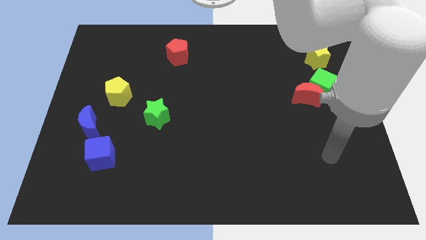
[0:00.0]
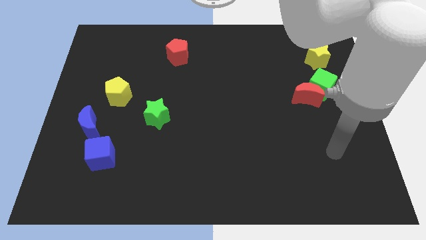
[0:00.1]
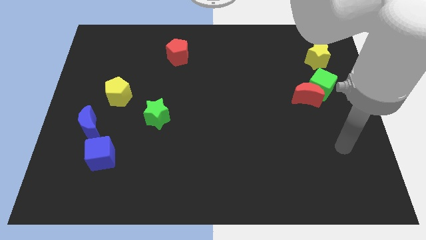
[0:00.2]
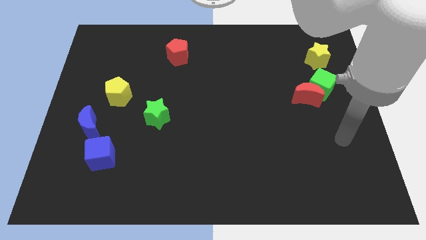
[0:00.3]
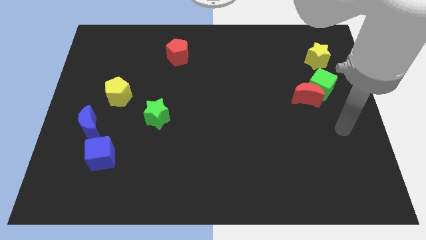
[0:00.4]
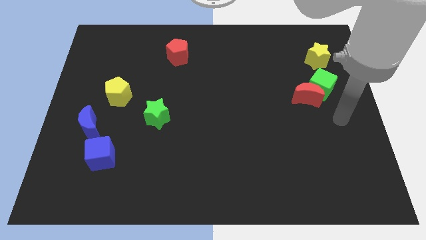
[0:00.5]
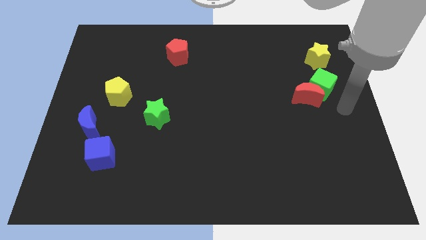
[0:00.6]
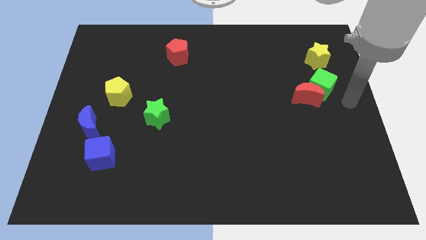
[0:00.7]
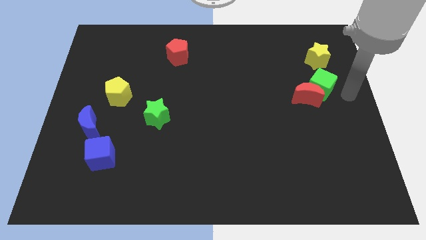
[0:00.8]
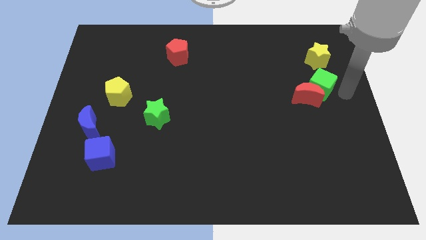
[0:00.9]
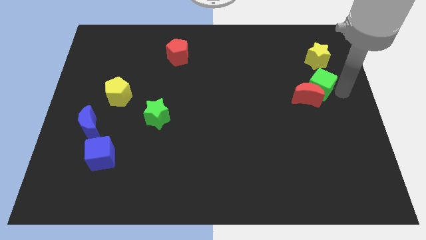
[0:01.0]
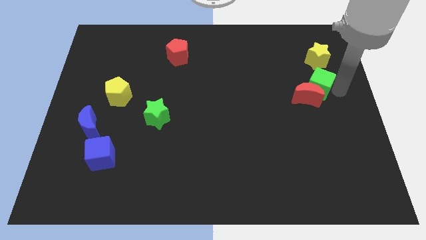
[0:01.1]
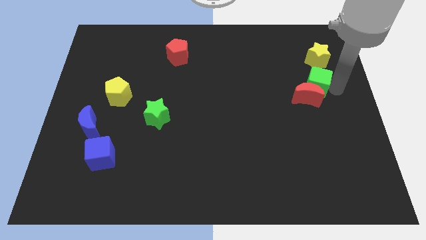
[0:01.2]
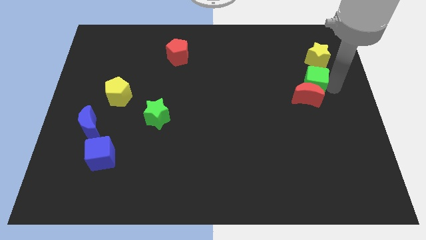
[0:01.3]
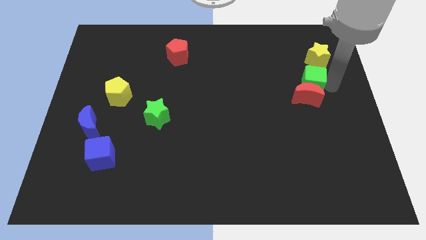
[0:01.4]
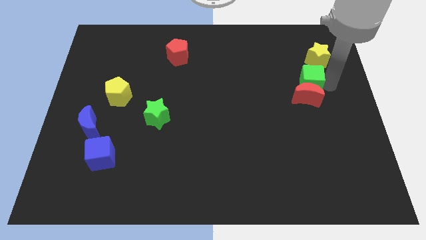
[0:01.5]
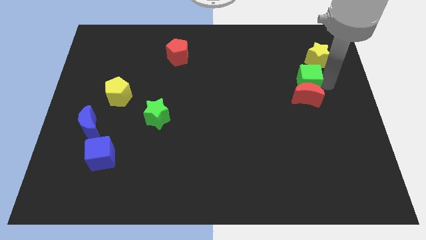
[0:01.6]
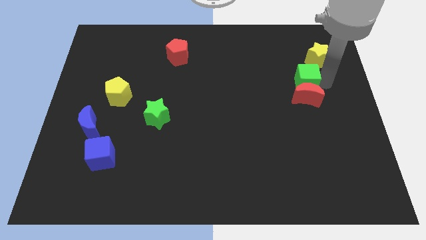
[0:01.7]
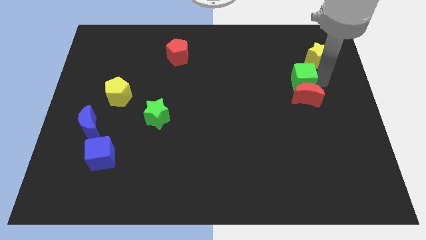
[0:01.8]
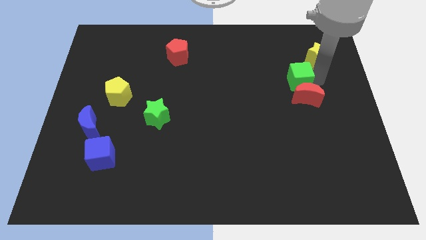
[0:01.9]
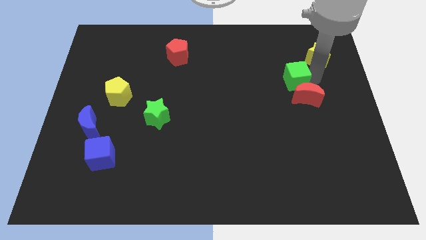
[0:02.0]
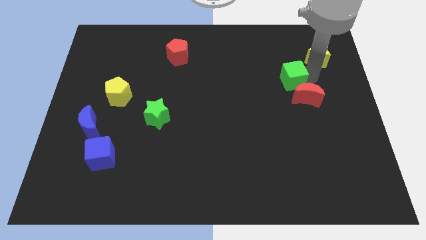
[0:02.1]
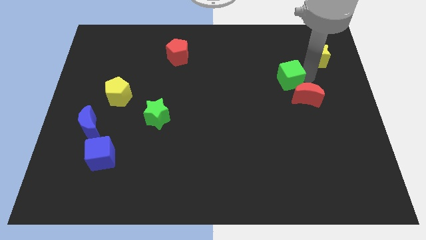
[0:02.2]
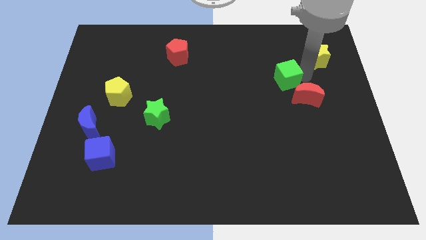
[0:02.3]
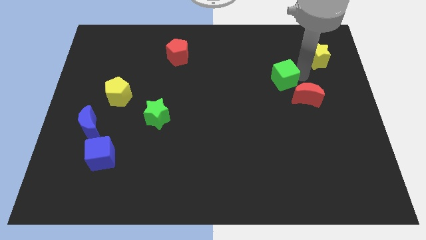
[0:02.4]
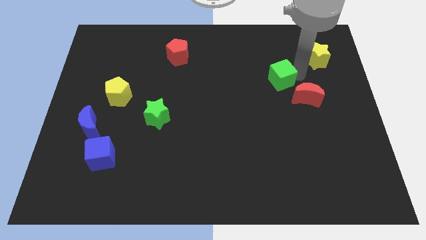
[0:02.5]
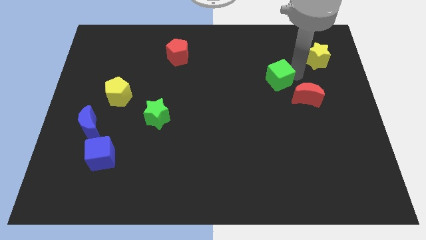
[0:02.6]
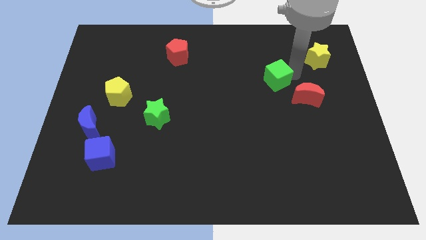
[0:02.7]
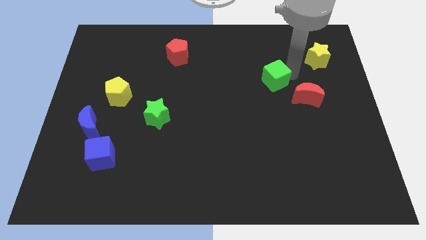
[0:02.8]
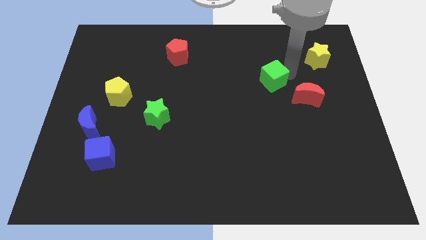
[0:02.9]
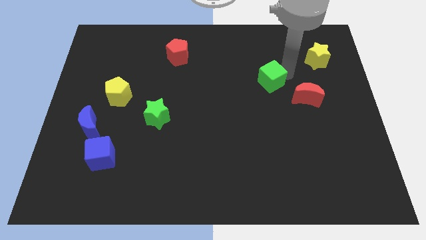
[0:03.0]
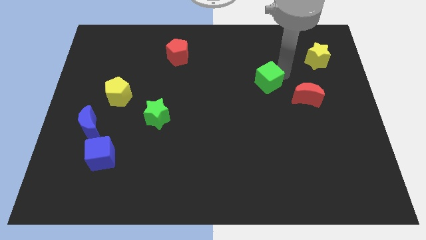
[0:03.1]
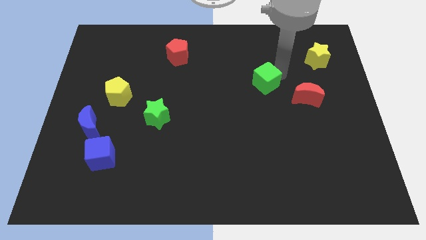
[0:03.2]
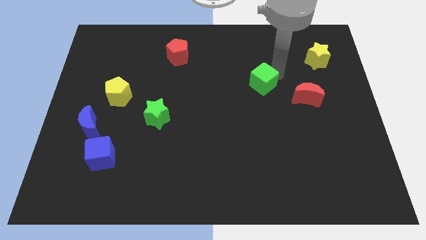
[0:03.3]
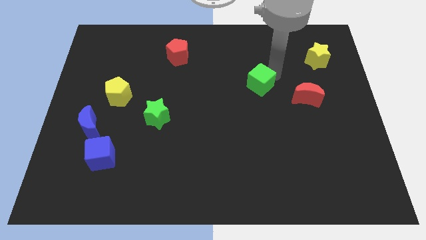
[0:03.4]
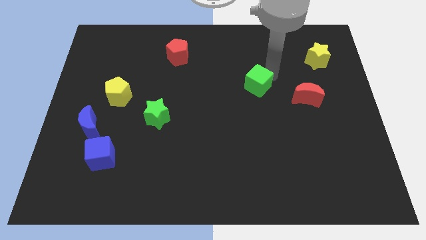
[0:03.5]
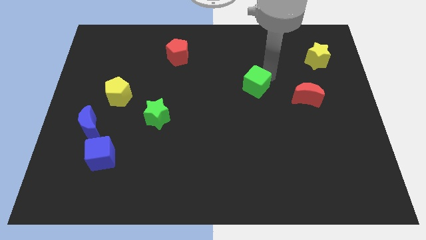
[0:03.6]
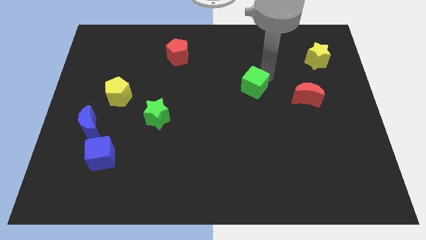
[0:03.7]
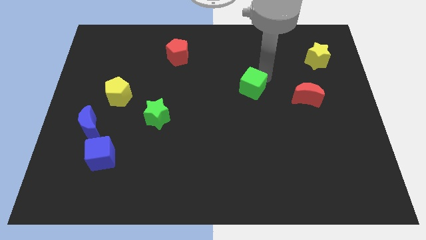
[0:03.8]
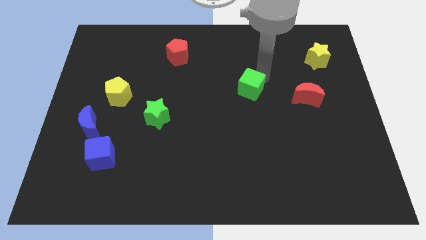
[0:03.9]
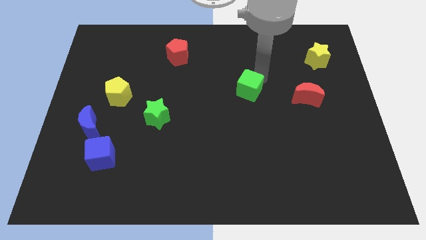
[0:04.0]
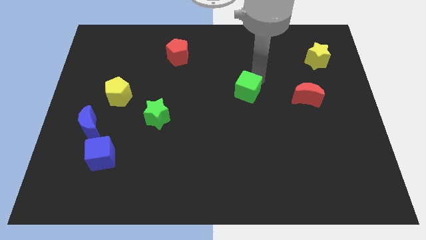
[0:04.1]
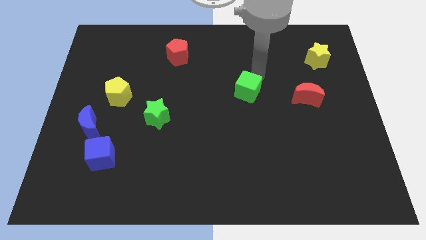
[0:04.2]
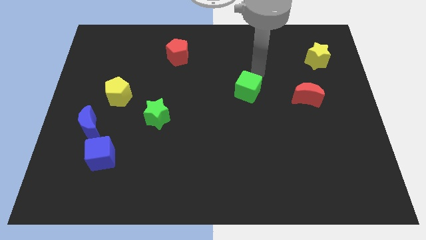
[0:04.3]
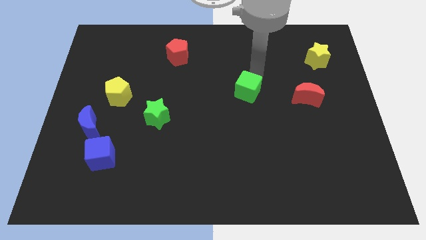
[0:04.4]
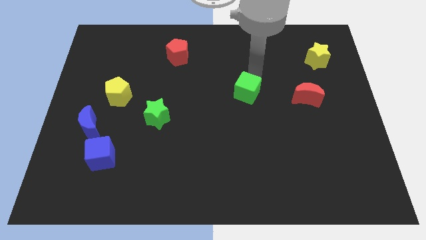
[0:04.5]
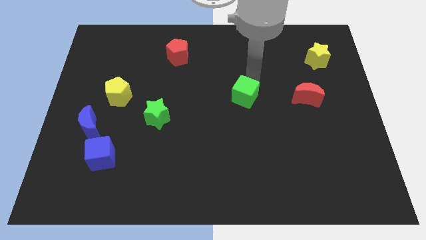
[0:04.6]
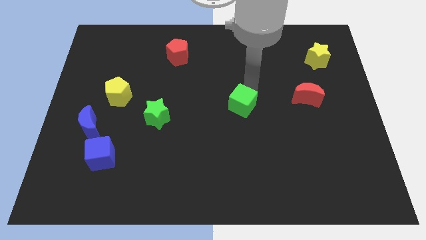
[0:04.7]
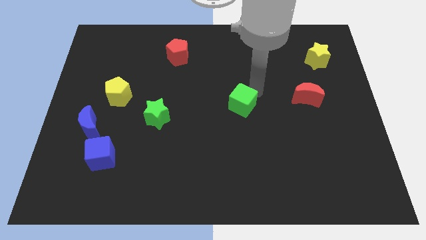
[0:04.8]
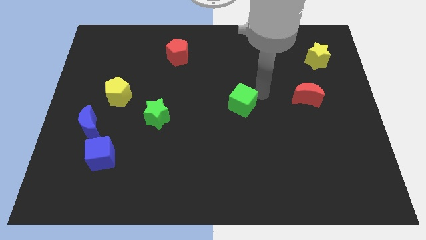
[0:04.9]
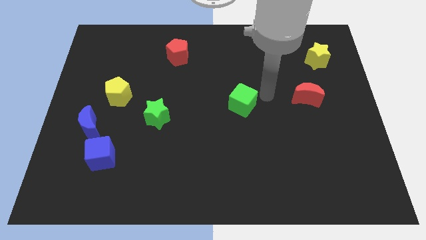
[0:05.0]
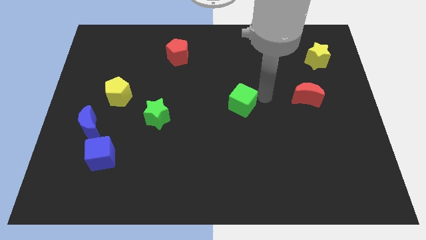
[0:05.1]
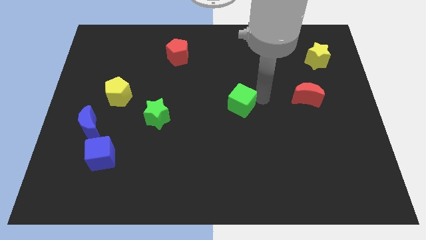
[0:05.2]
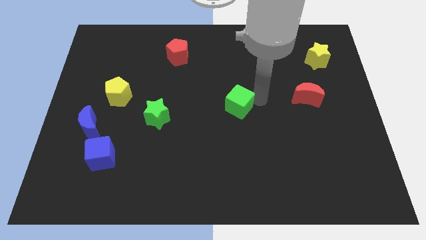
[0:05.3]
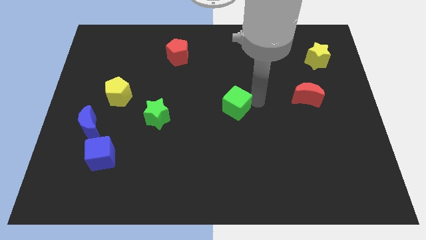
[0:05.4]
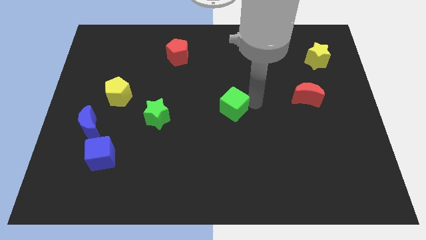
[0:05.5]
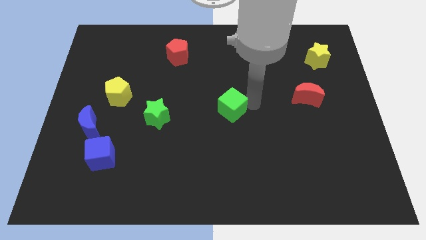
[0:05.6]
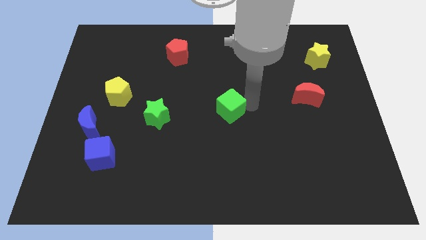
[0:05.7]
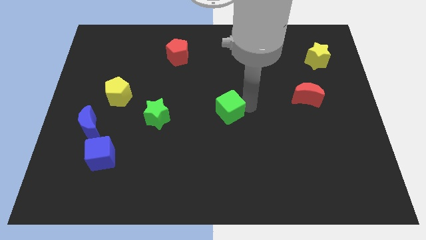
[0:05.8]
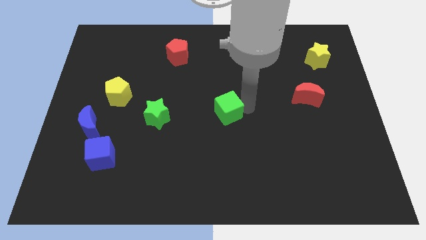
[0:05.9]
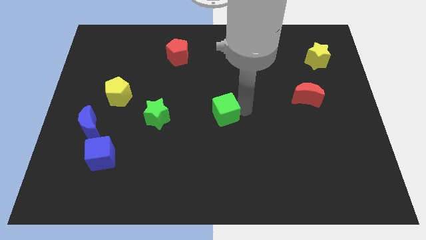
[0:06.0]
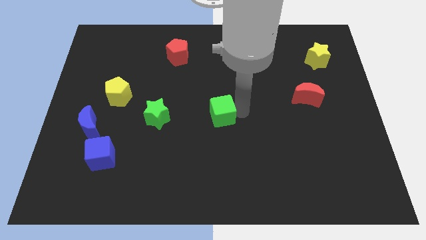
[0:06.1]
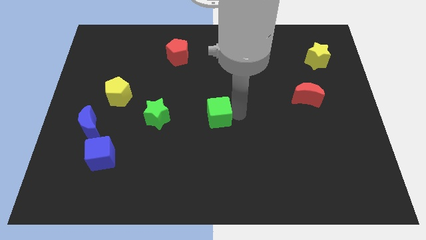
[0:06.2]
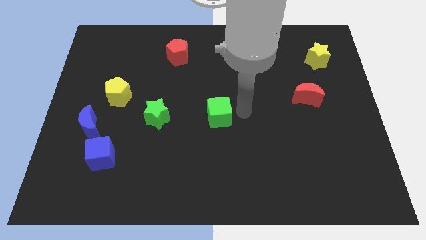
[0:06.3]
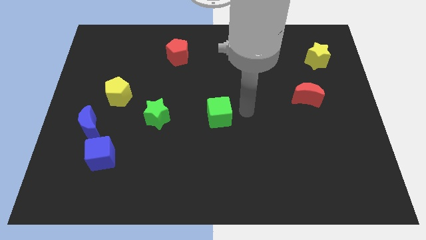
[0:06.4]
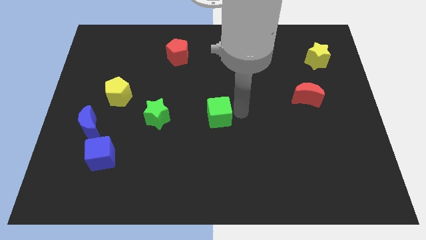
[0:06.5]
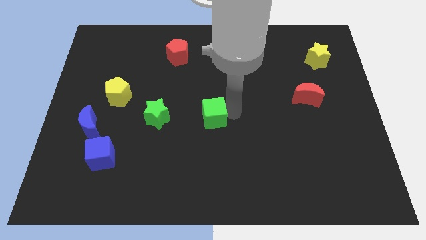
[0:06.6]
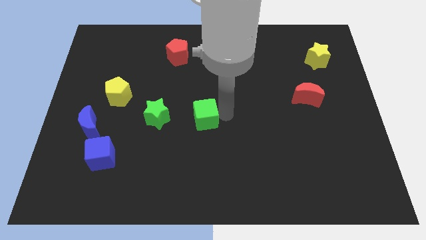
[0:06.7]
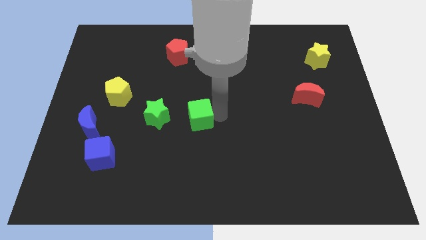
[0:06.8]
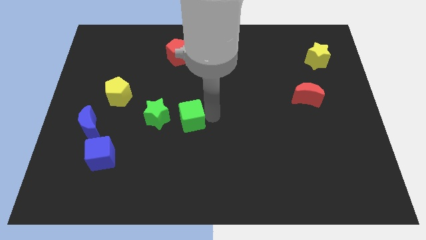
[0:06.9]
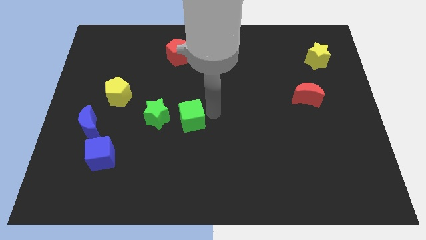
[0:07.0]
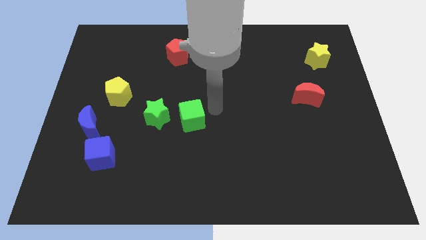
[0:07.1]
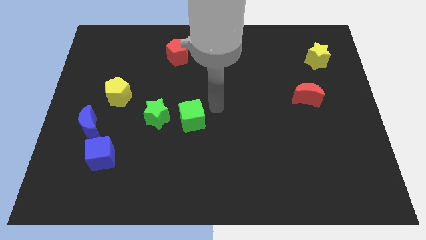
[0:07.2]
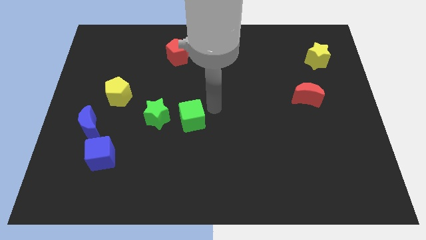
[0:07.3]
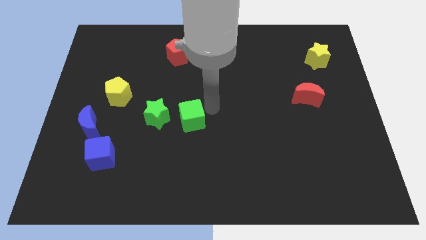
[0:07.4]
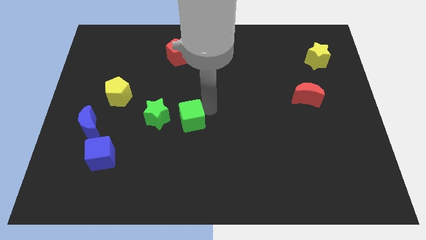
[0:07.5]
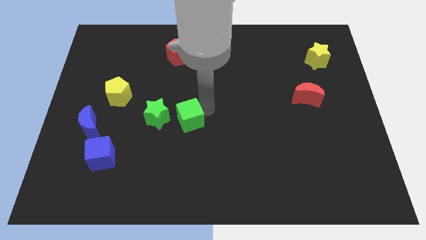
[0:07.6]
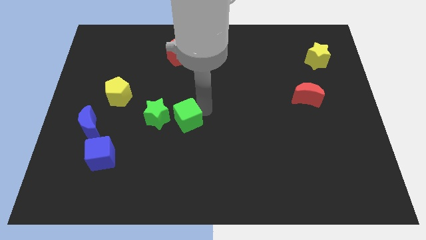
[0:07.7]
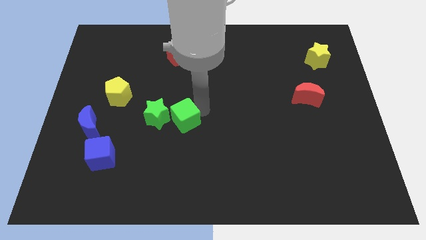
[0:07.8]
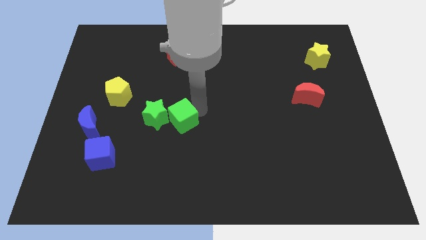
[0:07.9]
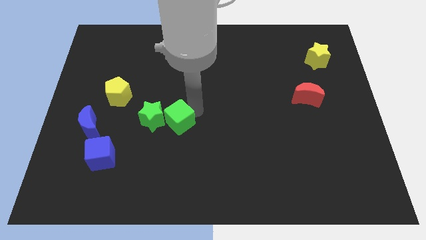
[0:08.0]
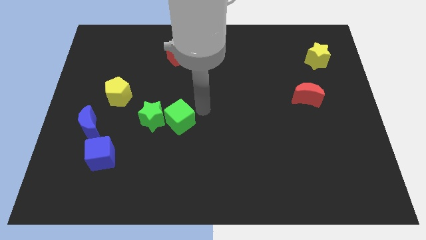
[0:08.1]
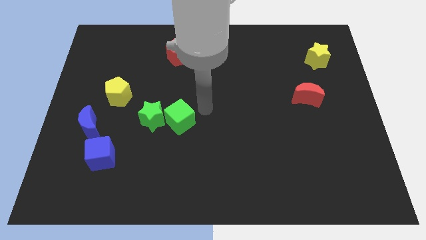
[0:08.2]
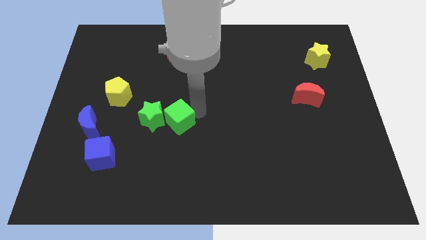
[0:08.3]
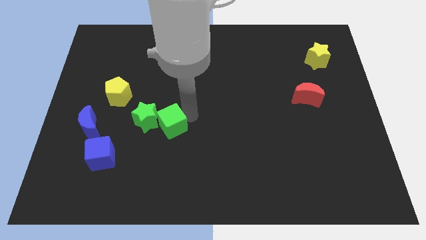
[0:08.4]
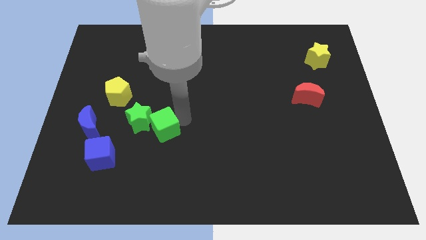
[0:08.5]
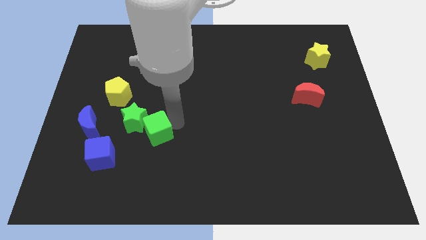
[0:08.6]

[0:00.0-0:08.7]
move the green cube to the right side of the blue moon
